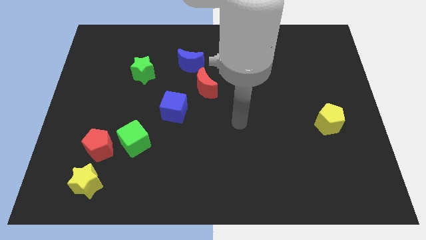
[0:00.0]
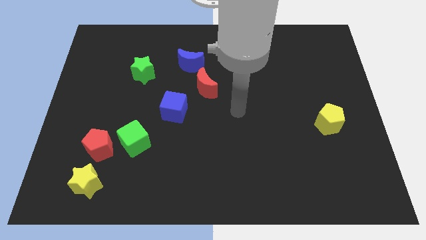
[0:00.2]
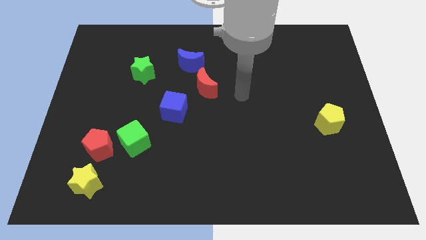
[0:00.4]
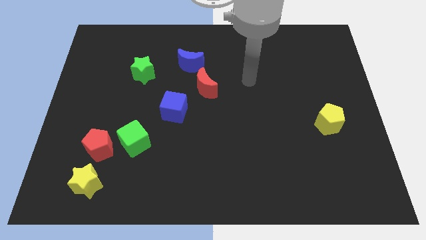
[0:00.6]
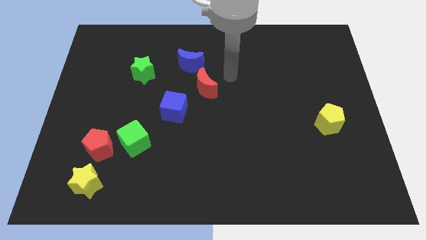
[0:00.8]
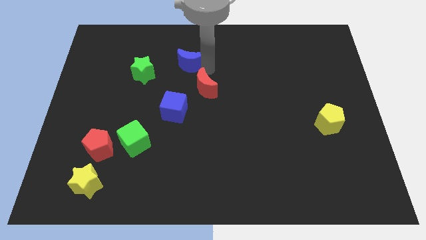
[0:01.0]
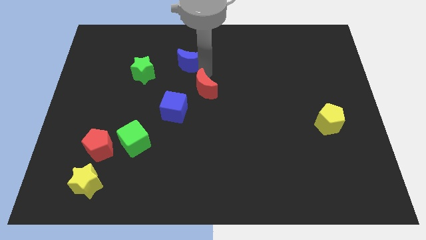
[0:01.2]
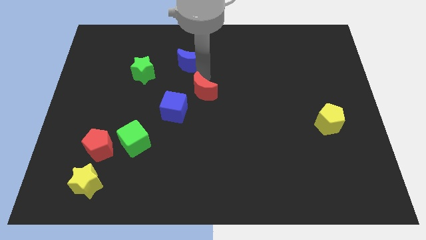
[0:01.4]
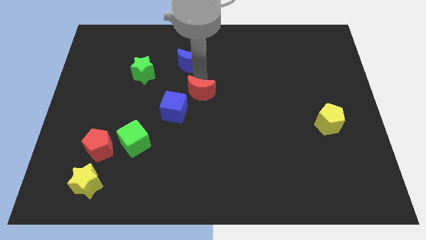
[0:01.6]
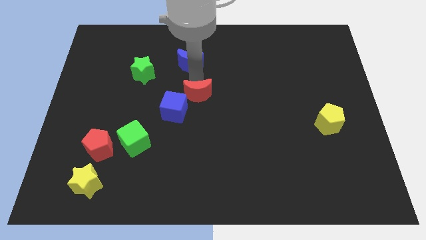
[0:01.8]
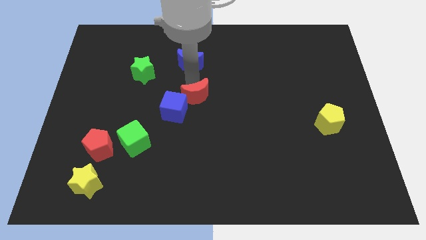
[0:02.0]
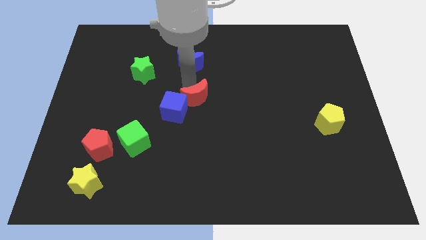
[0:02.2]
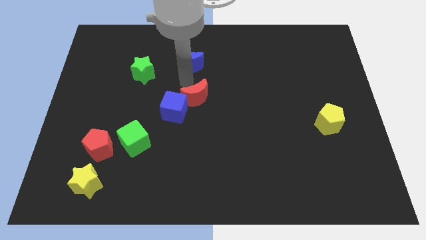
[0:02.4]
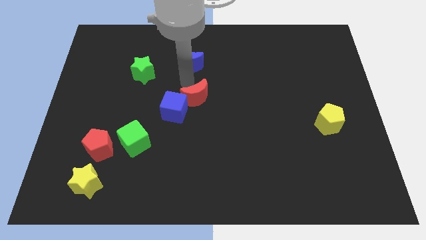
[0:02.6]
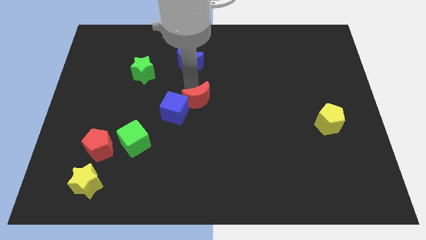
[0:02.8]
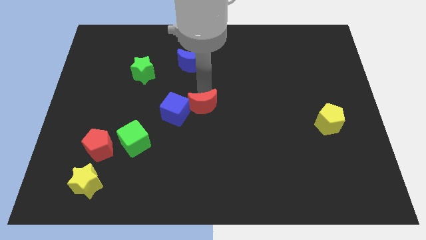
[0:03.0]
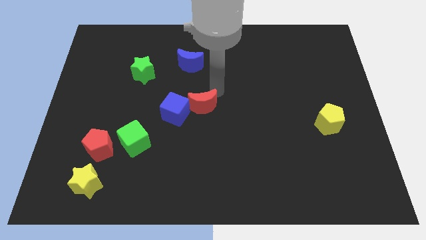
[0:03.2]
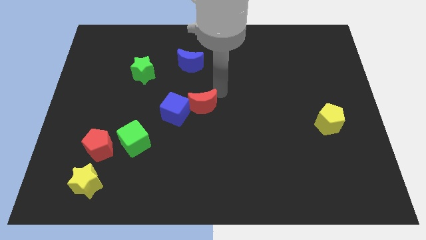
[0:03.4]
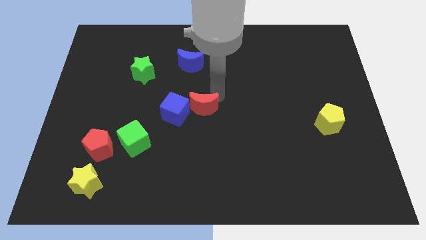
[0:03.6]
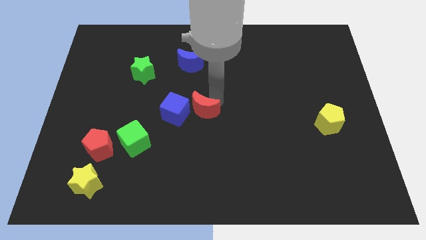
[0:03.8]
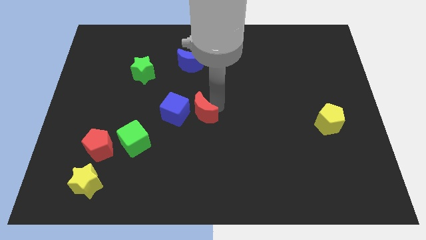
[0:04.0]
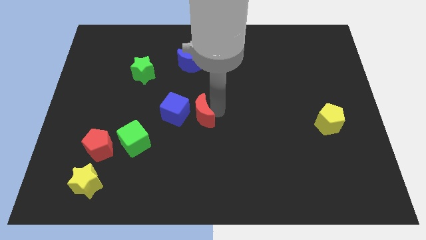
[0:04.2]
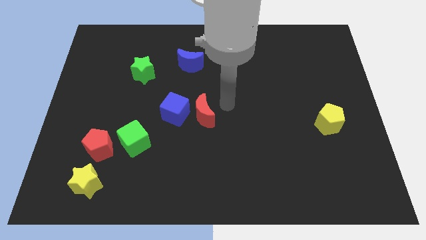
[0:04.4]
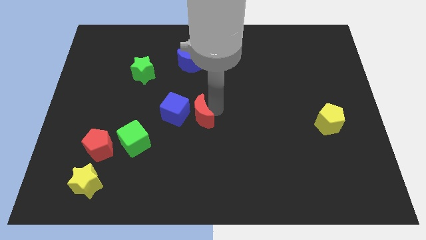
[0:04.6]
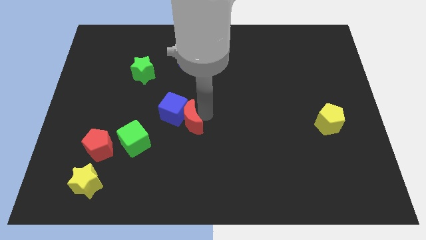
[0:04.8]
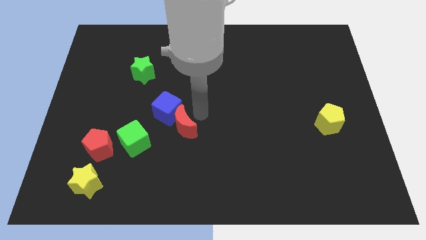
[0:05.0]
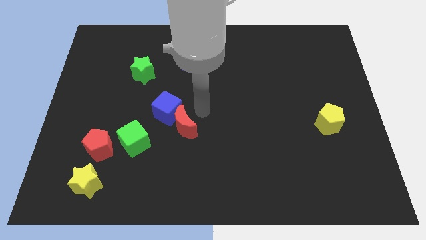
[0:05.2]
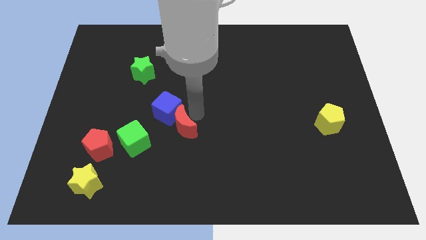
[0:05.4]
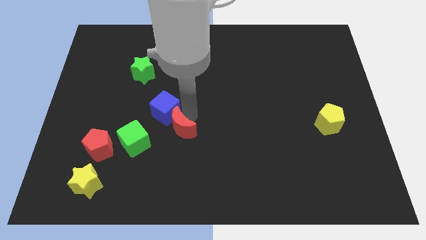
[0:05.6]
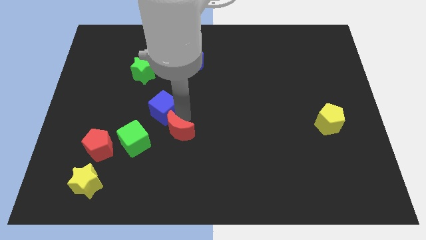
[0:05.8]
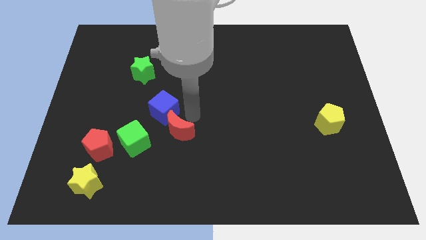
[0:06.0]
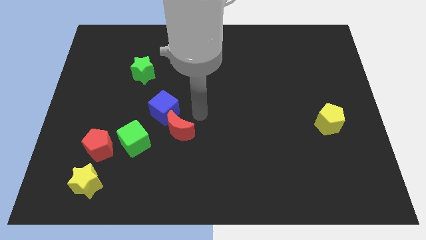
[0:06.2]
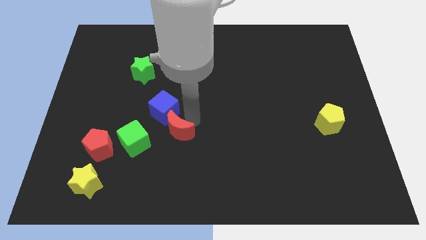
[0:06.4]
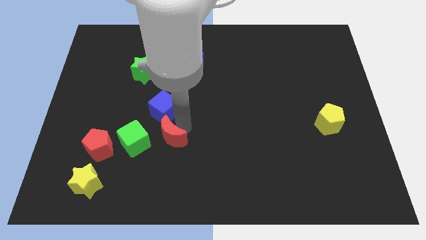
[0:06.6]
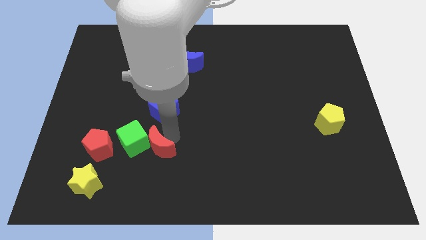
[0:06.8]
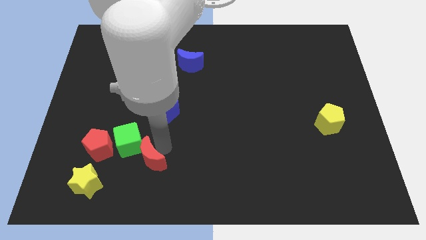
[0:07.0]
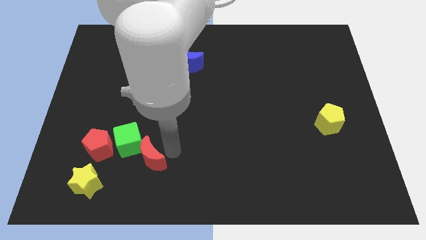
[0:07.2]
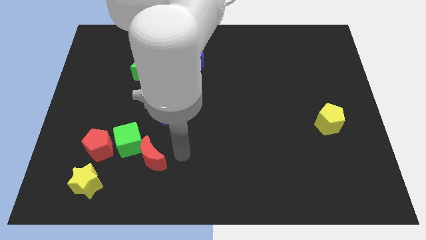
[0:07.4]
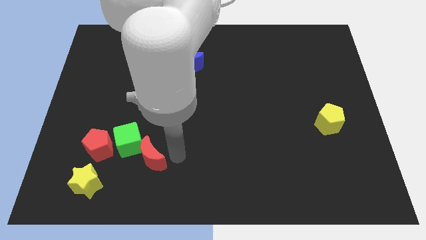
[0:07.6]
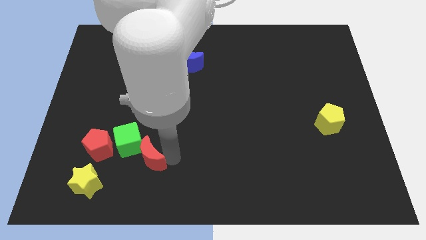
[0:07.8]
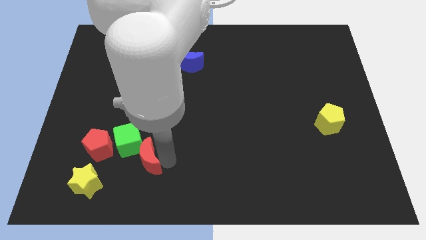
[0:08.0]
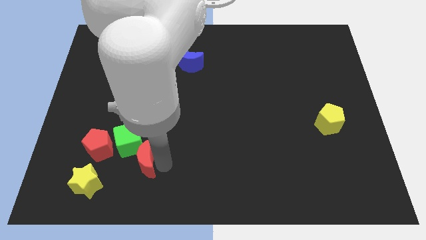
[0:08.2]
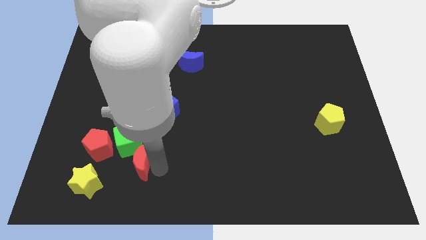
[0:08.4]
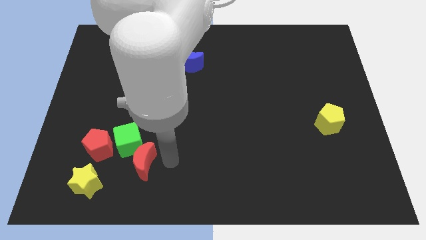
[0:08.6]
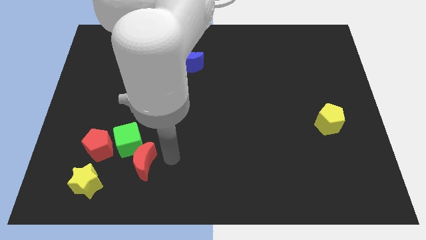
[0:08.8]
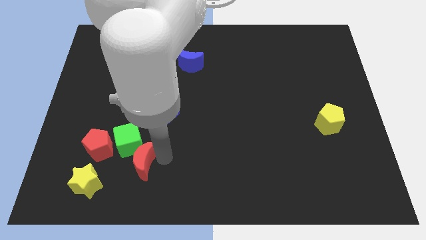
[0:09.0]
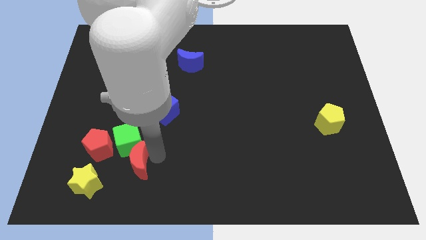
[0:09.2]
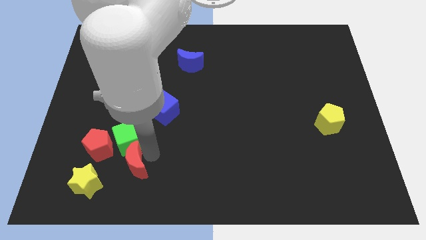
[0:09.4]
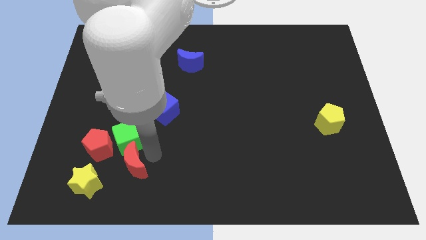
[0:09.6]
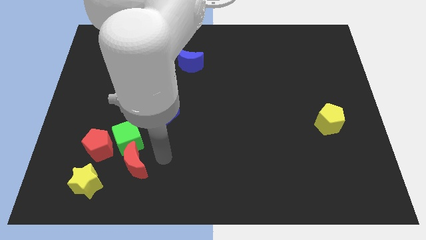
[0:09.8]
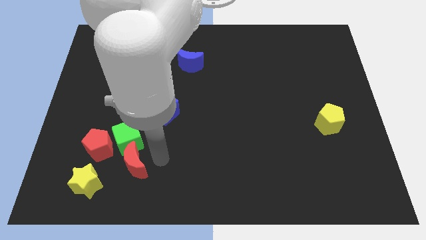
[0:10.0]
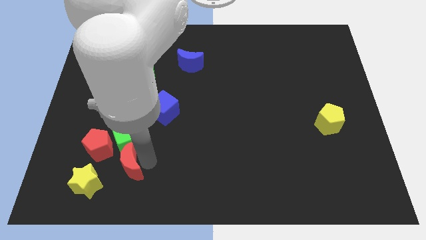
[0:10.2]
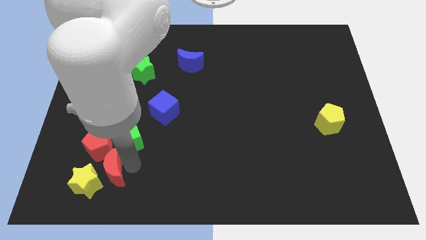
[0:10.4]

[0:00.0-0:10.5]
slide the red moon to the yellow star

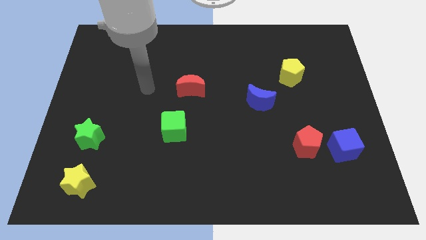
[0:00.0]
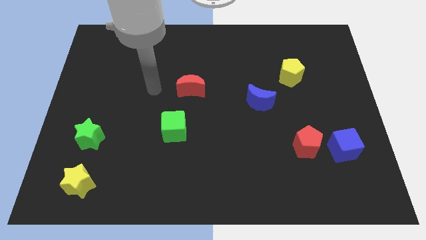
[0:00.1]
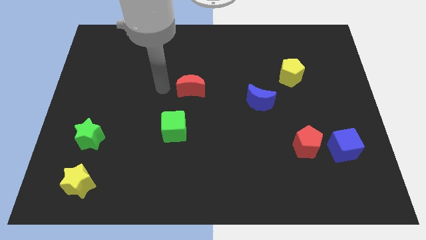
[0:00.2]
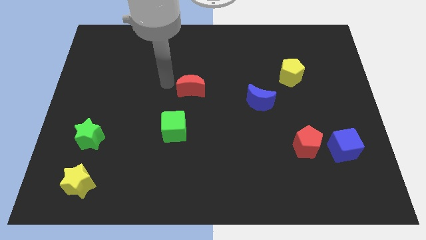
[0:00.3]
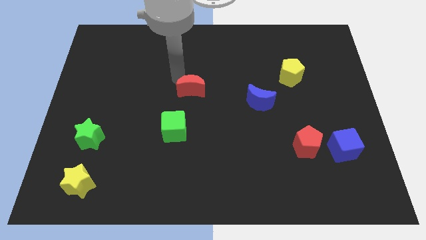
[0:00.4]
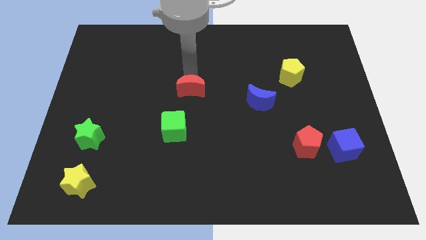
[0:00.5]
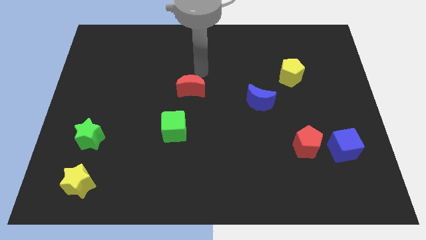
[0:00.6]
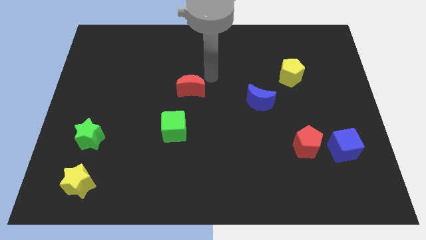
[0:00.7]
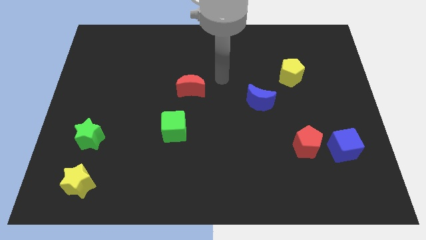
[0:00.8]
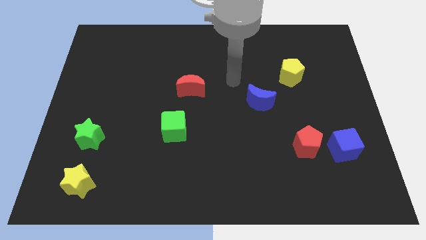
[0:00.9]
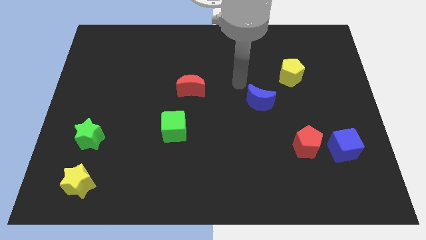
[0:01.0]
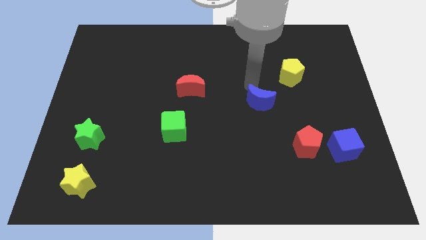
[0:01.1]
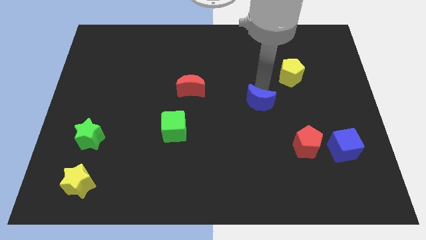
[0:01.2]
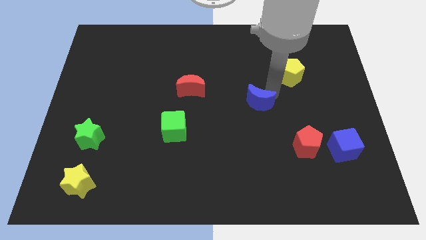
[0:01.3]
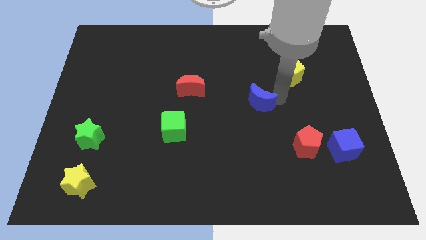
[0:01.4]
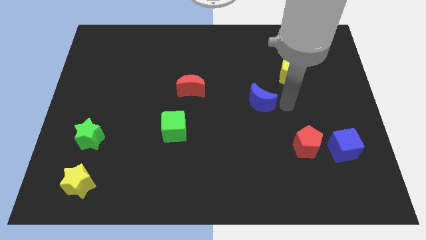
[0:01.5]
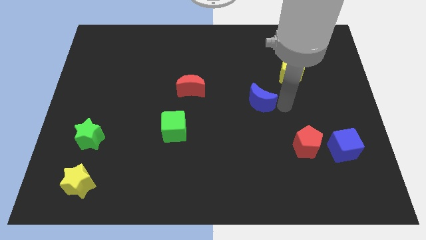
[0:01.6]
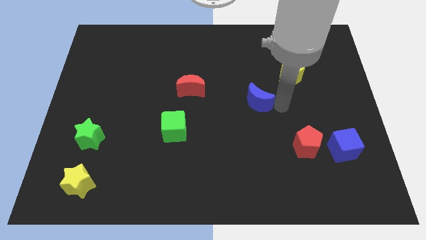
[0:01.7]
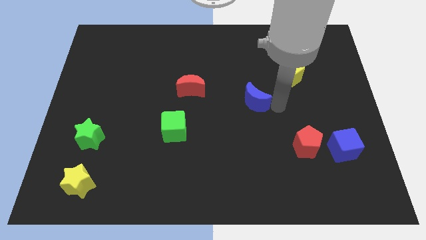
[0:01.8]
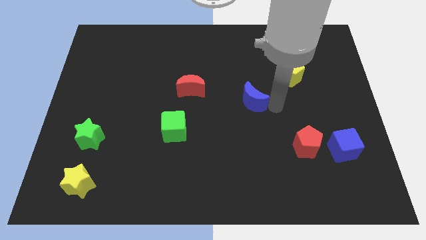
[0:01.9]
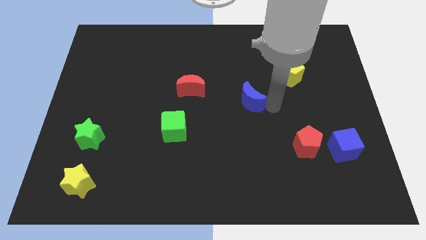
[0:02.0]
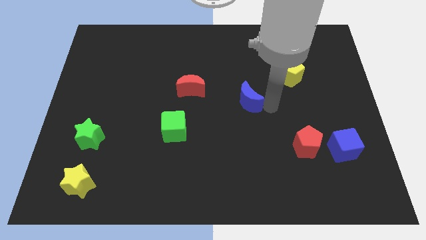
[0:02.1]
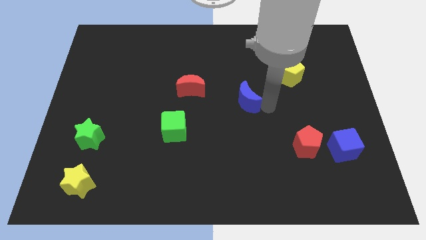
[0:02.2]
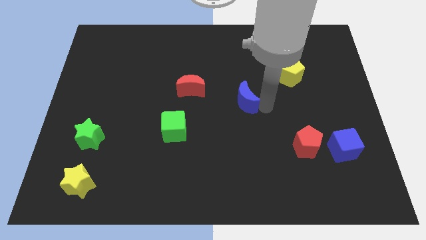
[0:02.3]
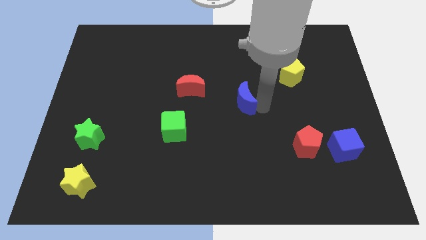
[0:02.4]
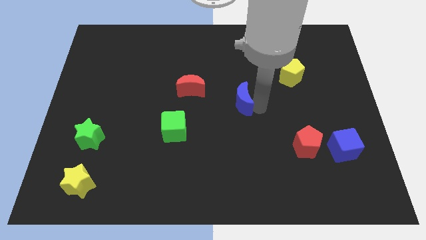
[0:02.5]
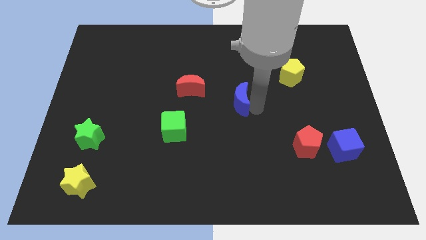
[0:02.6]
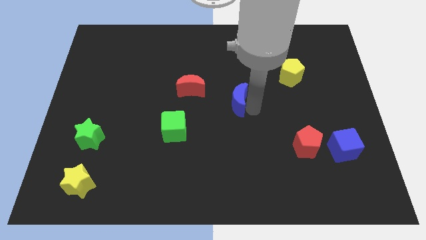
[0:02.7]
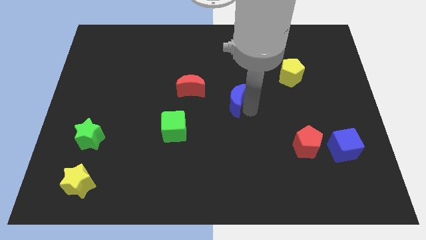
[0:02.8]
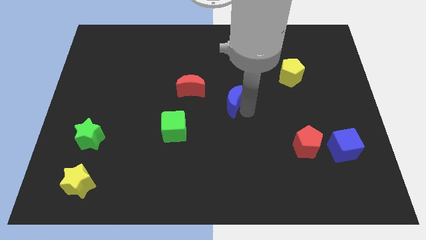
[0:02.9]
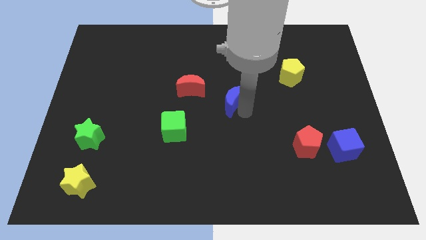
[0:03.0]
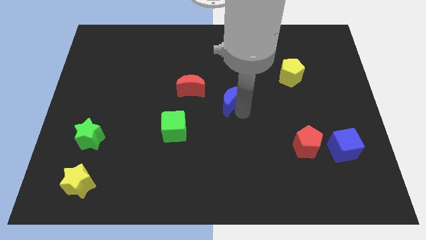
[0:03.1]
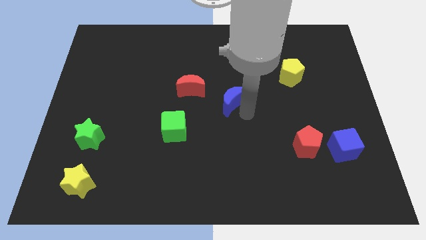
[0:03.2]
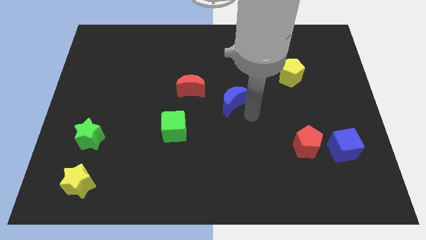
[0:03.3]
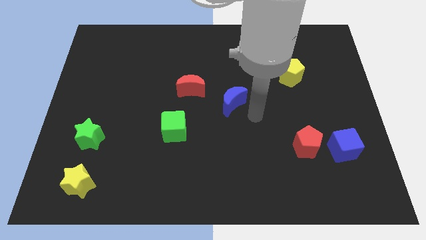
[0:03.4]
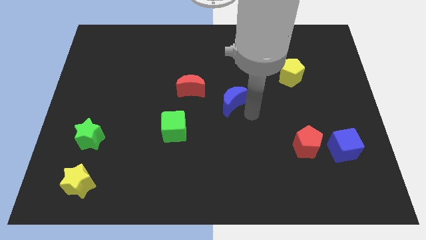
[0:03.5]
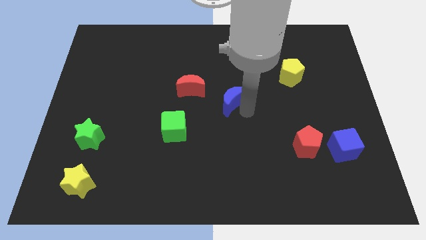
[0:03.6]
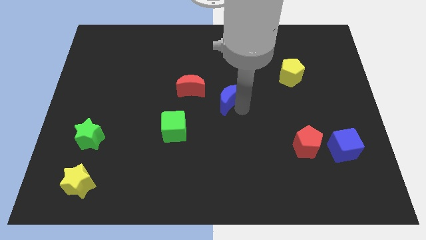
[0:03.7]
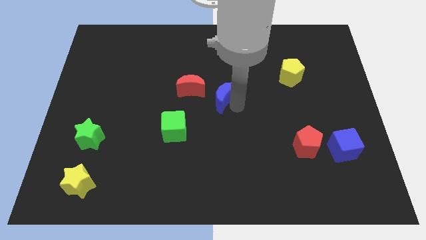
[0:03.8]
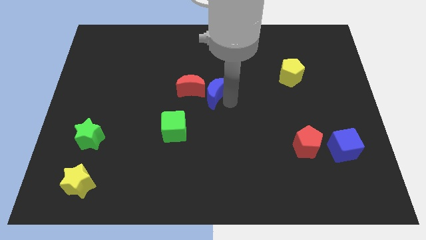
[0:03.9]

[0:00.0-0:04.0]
move the blue moon close to the red moon
